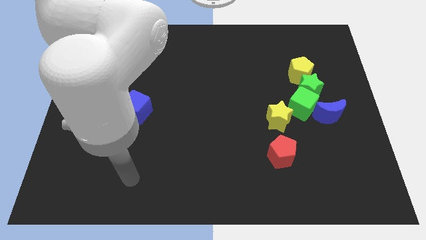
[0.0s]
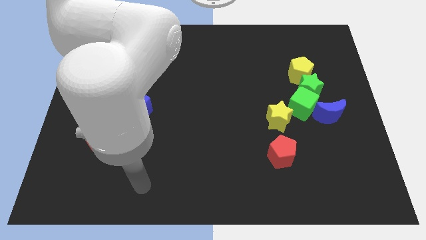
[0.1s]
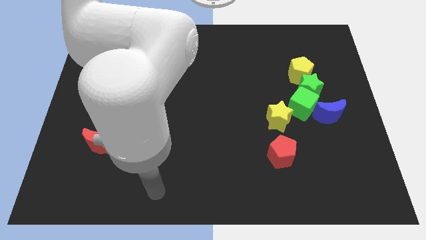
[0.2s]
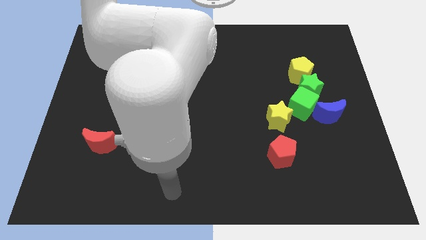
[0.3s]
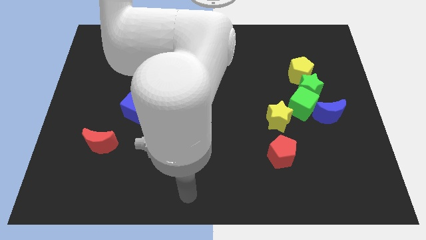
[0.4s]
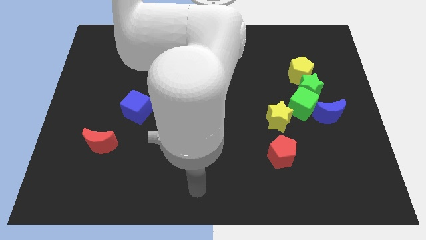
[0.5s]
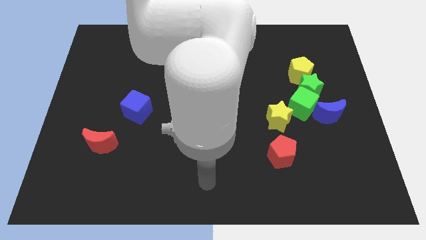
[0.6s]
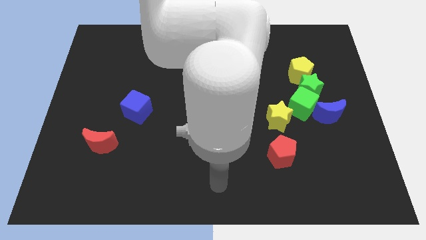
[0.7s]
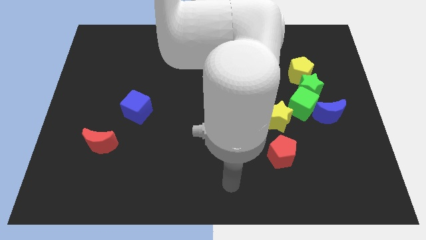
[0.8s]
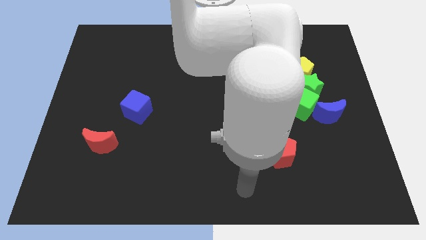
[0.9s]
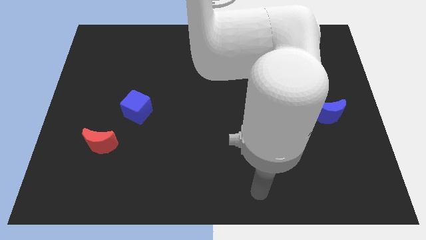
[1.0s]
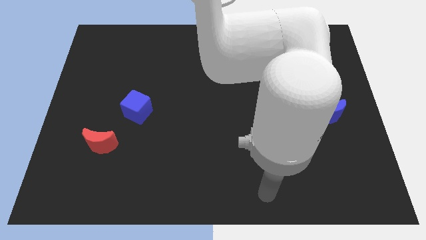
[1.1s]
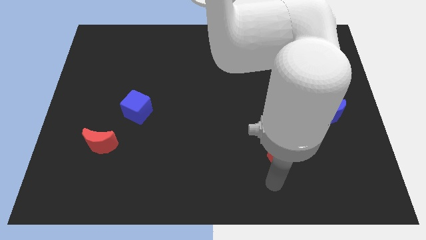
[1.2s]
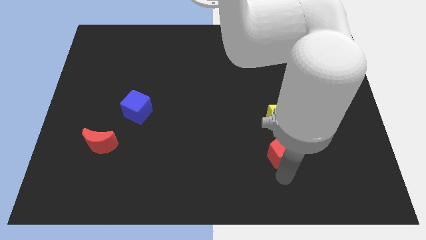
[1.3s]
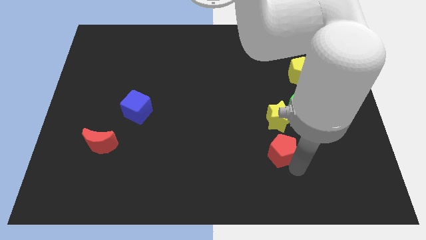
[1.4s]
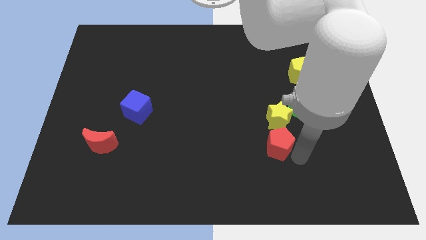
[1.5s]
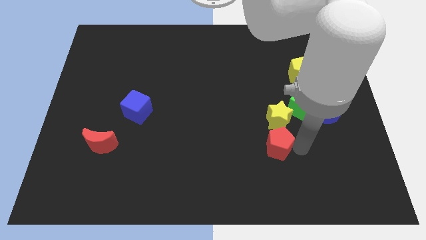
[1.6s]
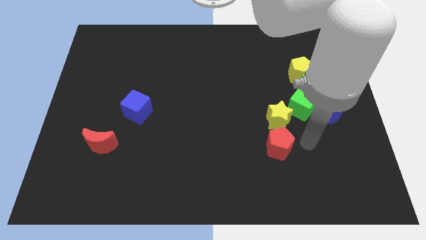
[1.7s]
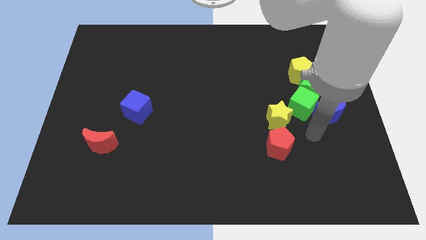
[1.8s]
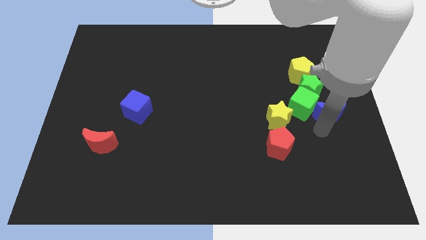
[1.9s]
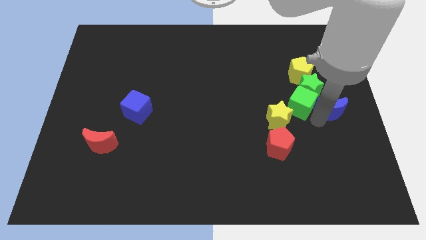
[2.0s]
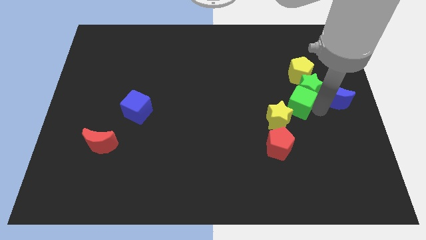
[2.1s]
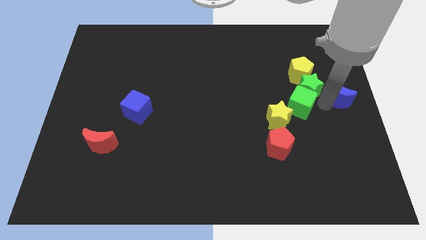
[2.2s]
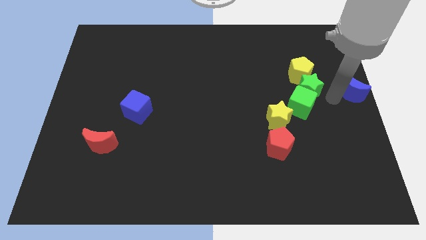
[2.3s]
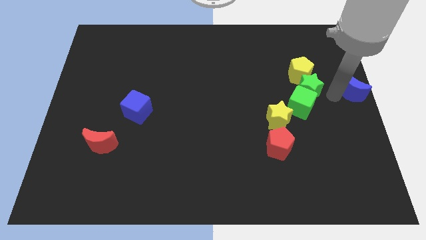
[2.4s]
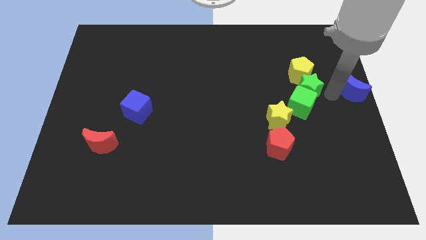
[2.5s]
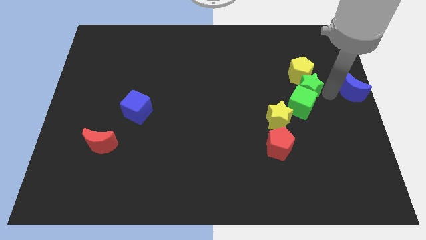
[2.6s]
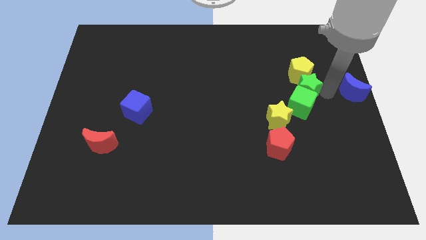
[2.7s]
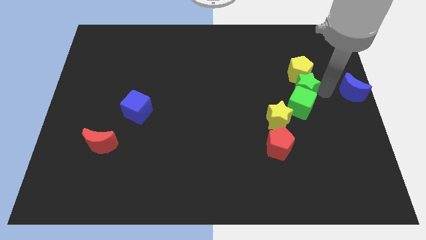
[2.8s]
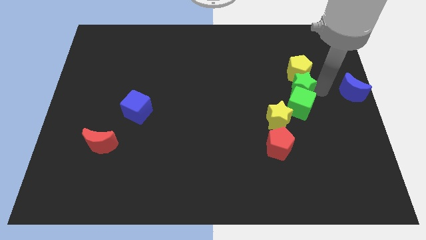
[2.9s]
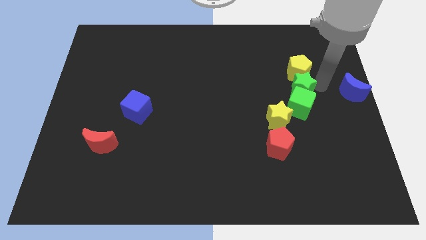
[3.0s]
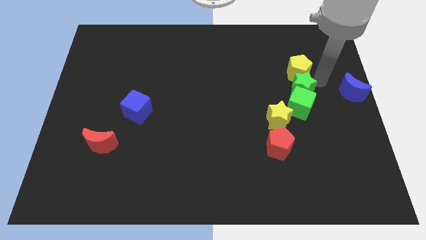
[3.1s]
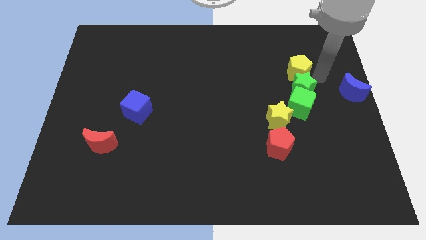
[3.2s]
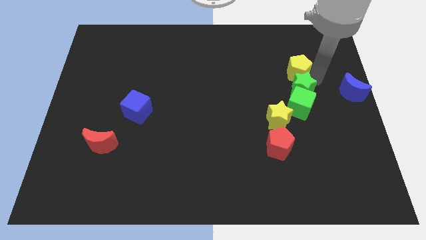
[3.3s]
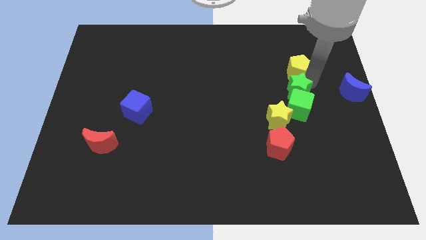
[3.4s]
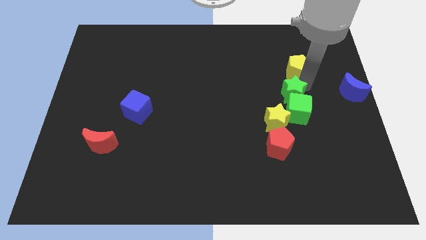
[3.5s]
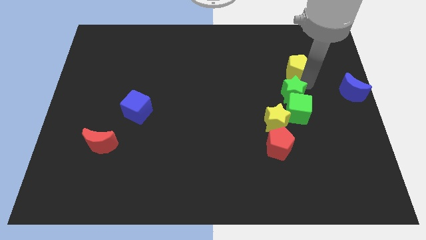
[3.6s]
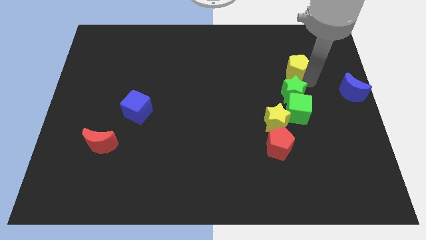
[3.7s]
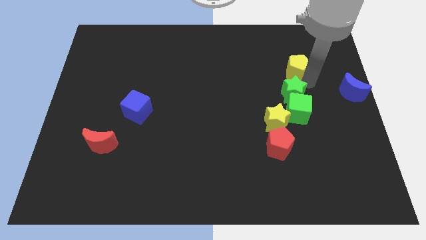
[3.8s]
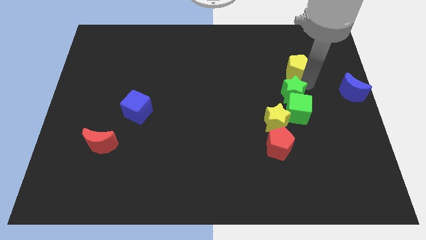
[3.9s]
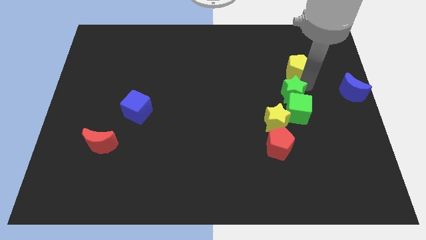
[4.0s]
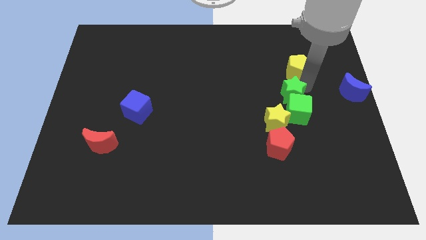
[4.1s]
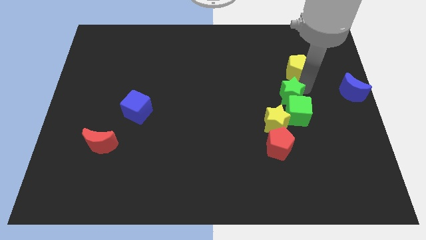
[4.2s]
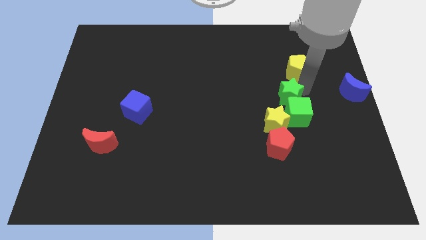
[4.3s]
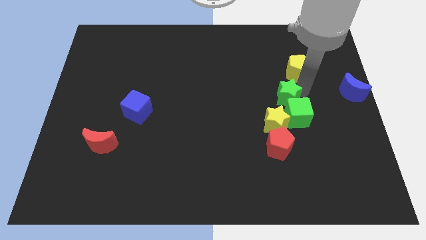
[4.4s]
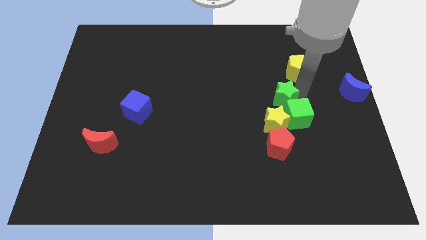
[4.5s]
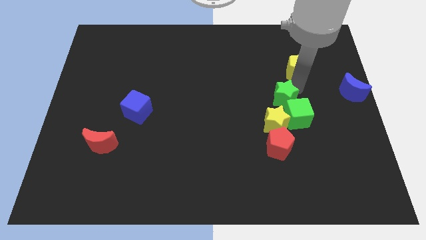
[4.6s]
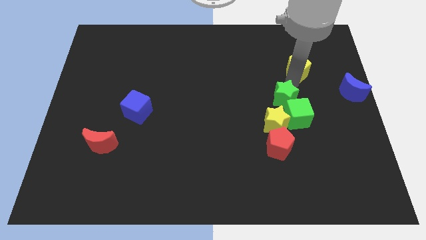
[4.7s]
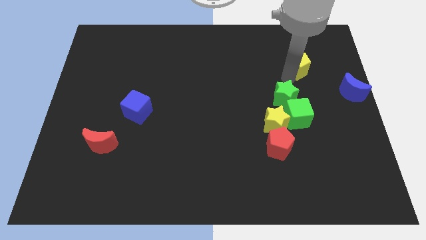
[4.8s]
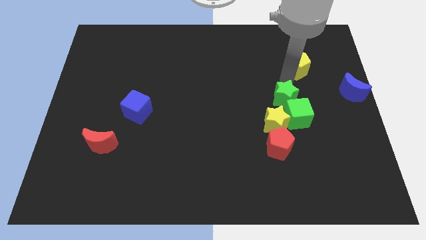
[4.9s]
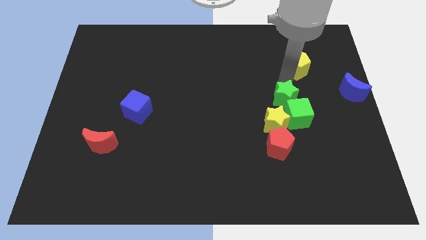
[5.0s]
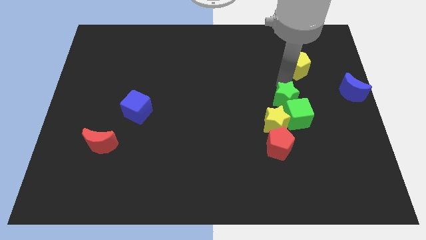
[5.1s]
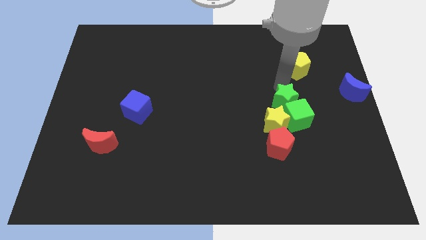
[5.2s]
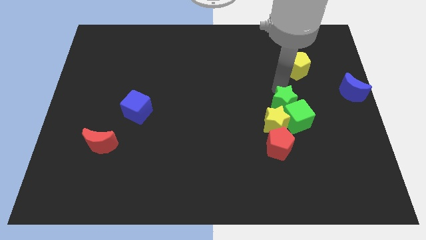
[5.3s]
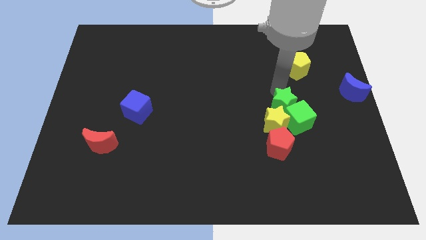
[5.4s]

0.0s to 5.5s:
push the green star towards the yellow star

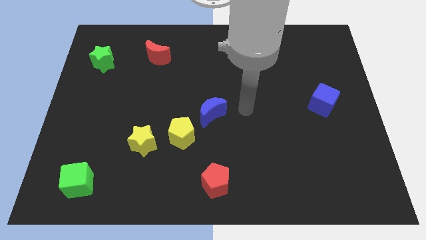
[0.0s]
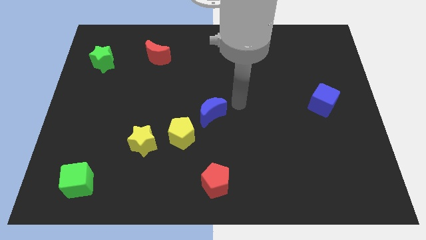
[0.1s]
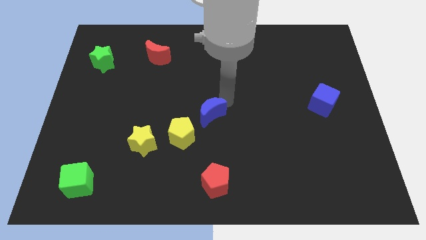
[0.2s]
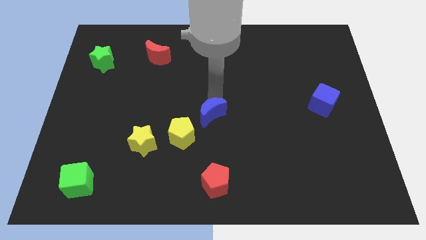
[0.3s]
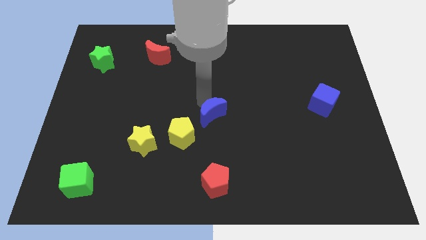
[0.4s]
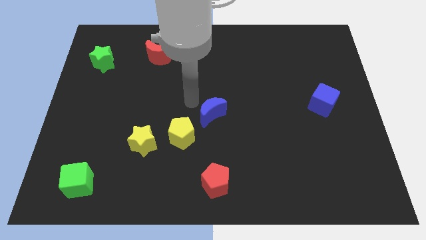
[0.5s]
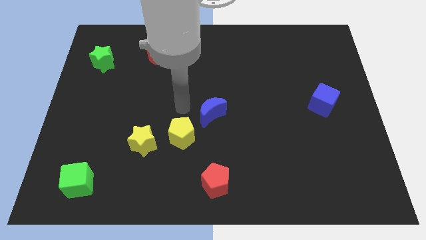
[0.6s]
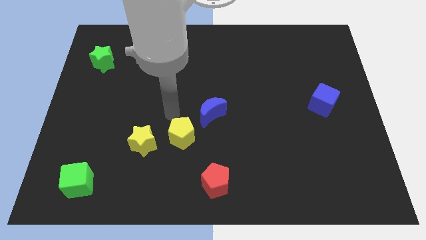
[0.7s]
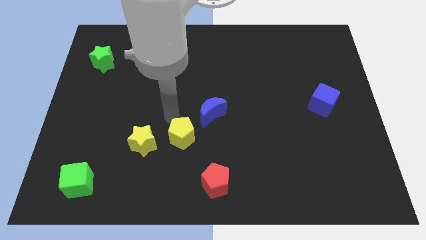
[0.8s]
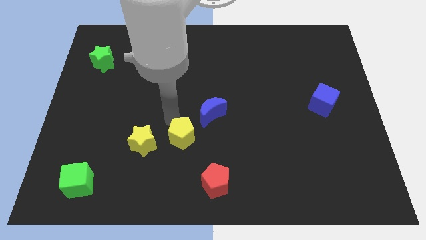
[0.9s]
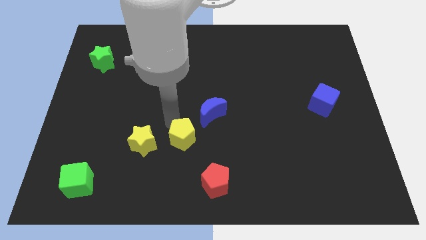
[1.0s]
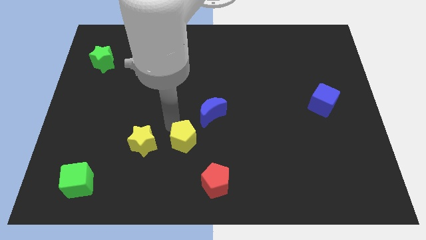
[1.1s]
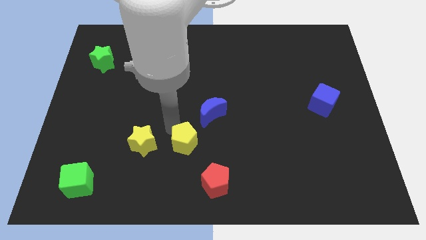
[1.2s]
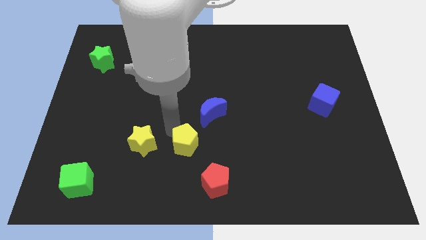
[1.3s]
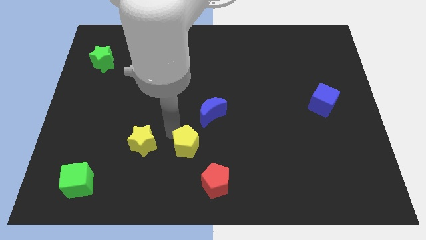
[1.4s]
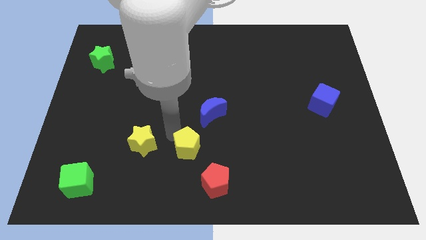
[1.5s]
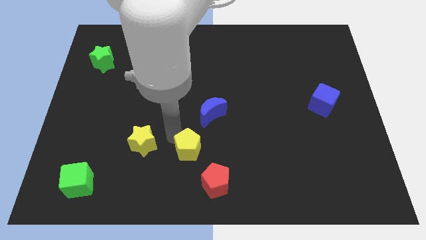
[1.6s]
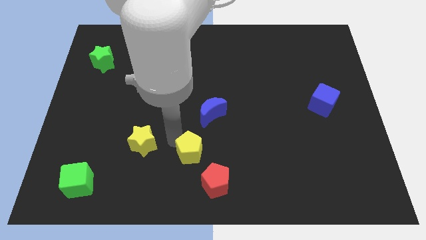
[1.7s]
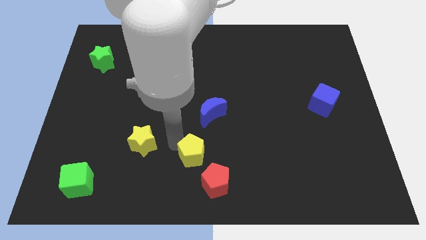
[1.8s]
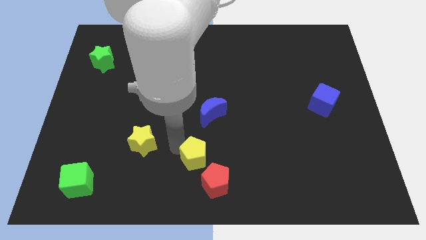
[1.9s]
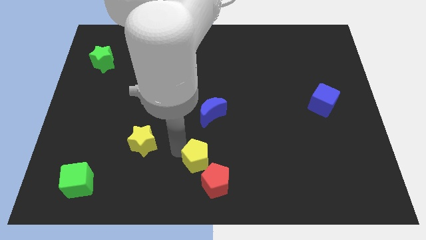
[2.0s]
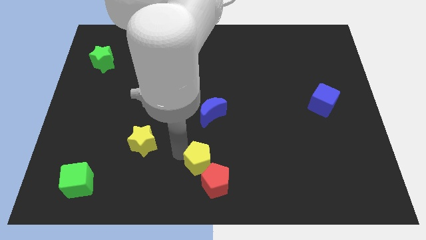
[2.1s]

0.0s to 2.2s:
put the yellow pentagon close to the red pentagon

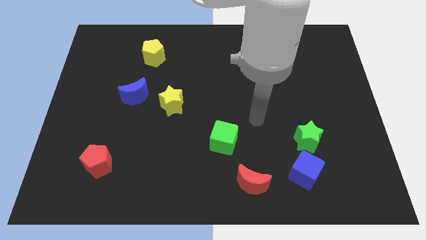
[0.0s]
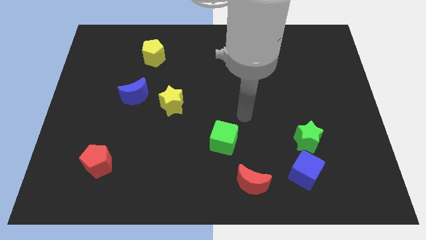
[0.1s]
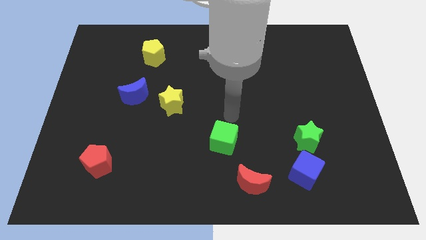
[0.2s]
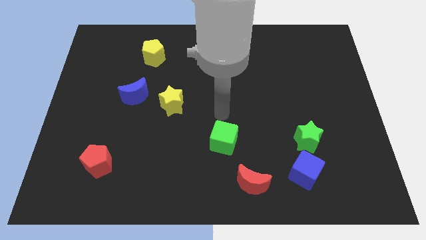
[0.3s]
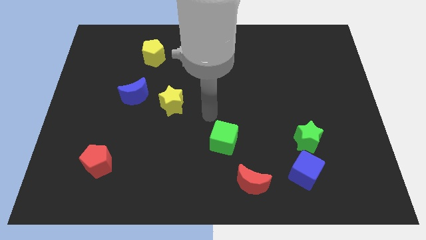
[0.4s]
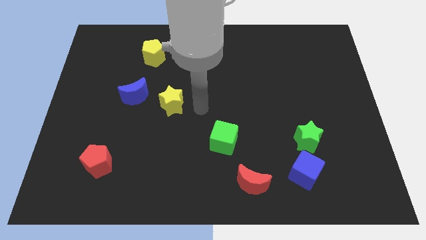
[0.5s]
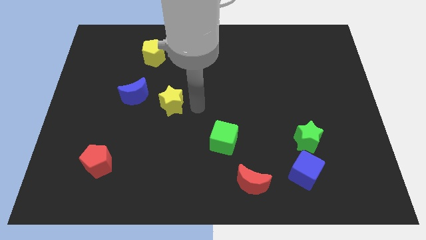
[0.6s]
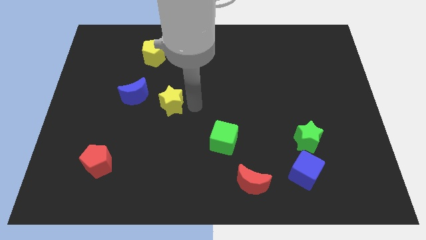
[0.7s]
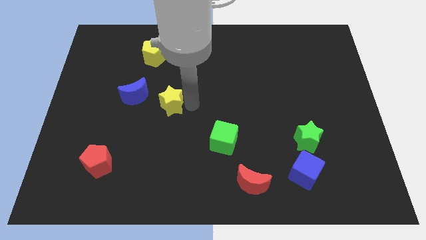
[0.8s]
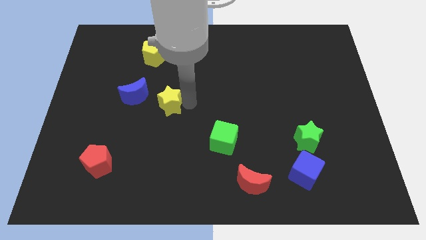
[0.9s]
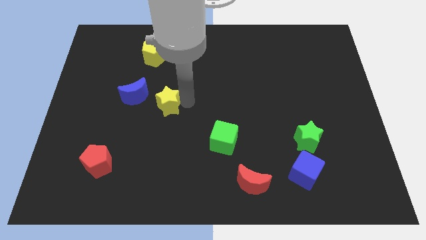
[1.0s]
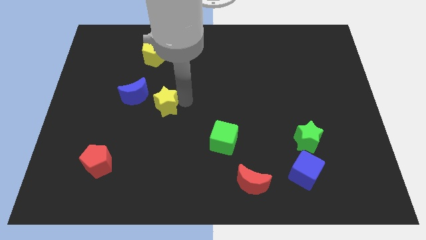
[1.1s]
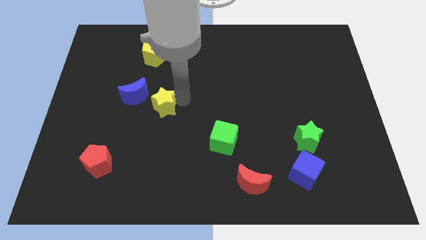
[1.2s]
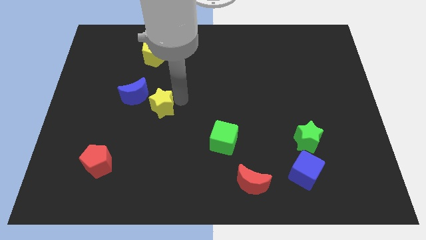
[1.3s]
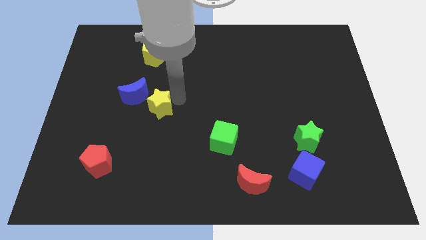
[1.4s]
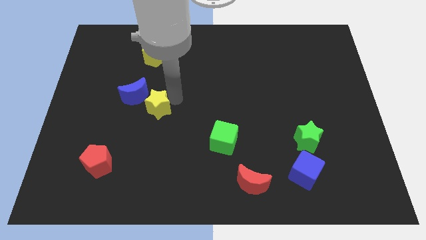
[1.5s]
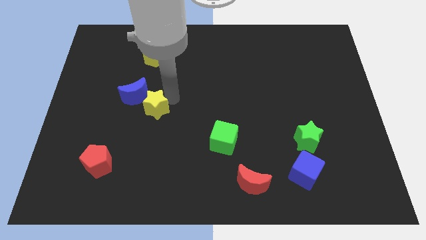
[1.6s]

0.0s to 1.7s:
move the yellow star close to the blue moon
